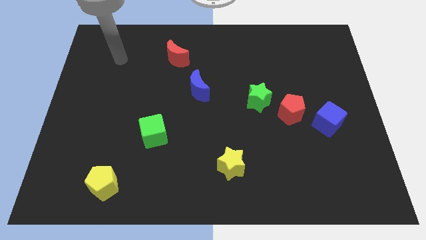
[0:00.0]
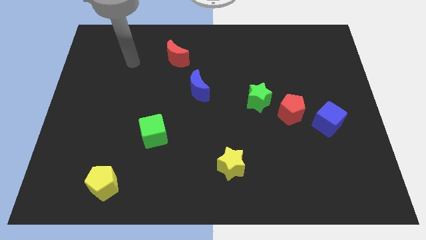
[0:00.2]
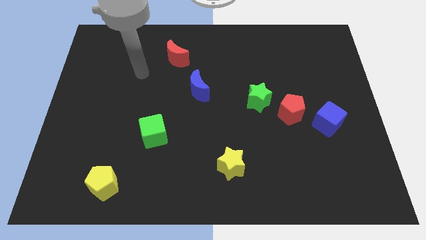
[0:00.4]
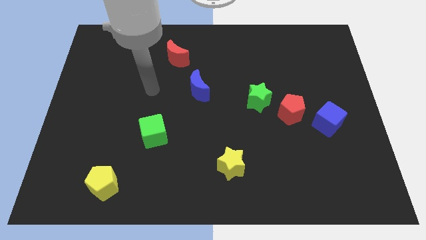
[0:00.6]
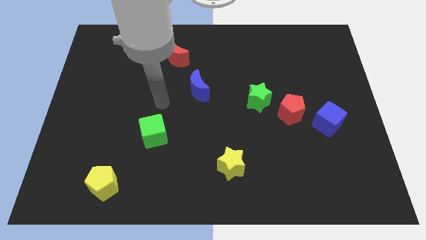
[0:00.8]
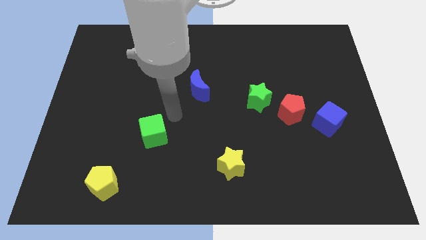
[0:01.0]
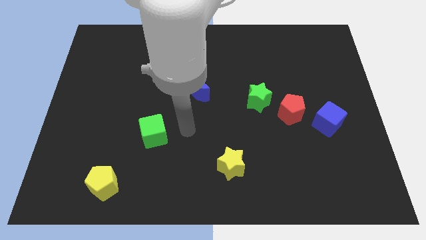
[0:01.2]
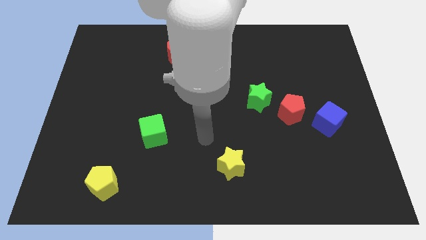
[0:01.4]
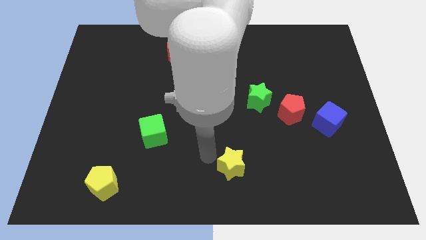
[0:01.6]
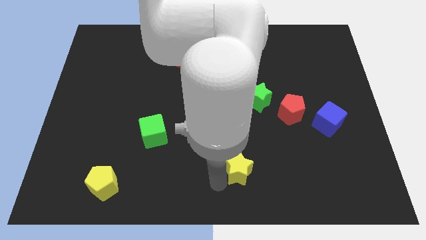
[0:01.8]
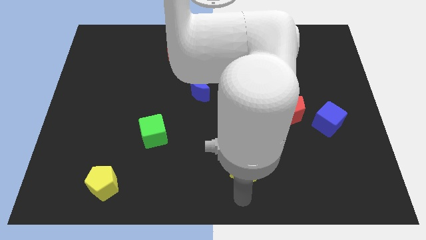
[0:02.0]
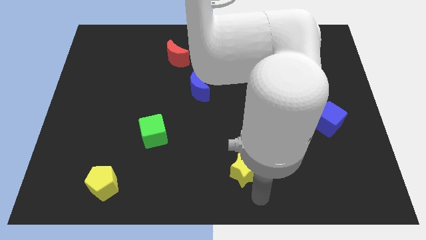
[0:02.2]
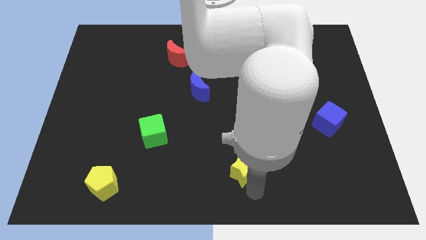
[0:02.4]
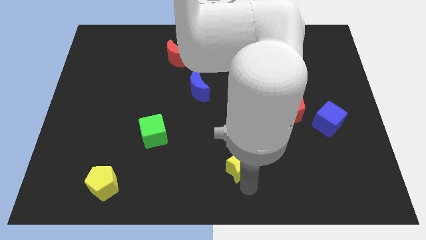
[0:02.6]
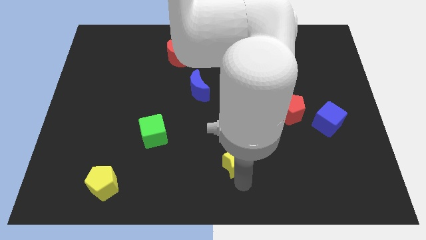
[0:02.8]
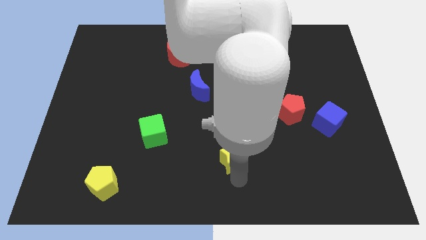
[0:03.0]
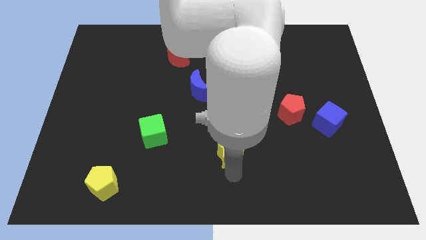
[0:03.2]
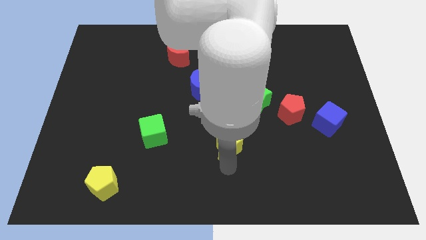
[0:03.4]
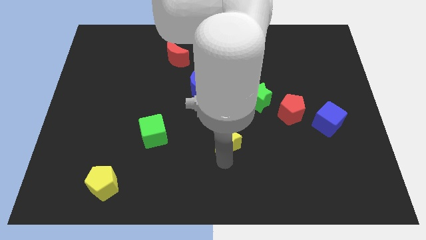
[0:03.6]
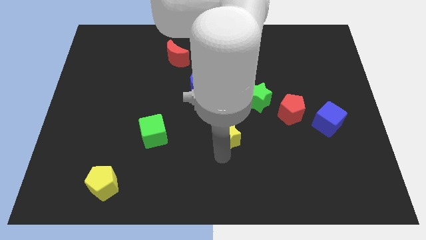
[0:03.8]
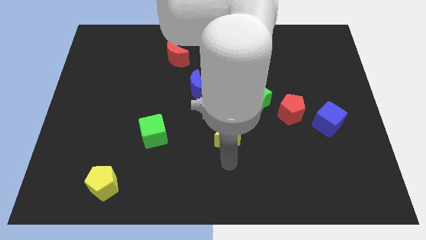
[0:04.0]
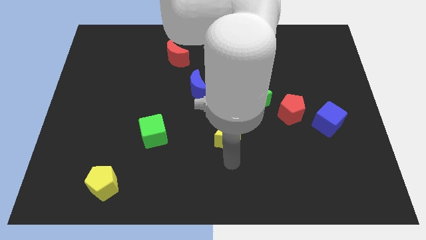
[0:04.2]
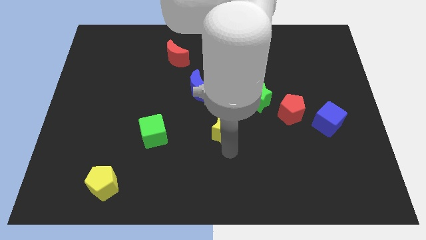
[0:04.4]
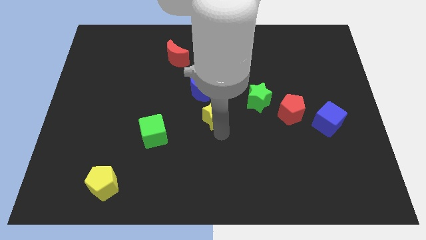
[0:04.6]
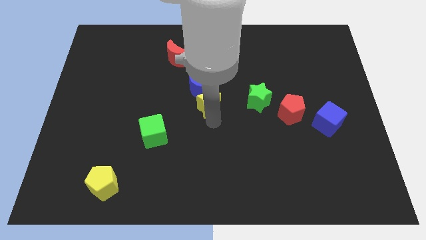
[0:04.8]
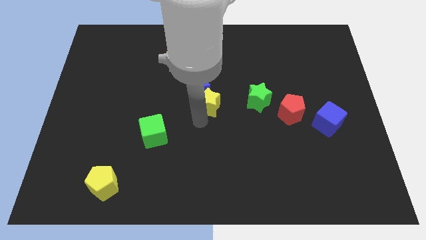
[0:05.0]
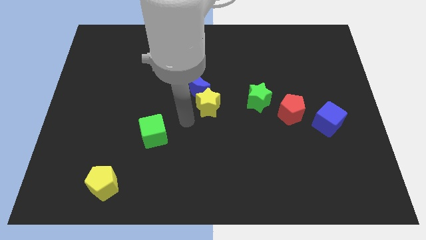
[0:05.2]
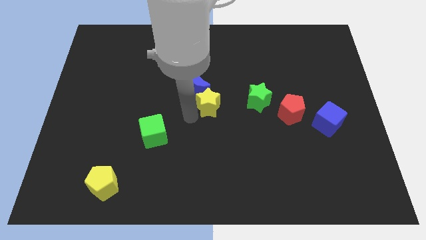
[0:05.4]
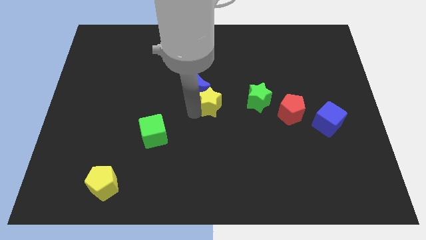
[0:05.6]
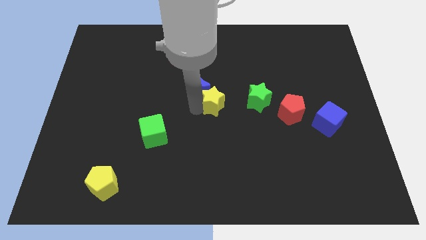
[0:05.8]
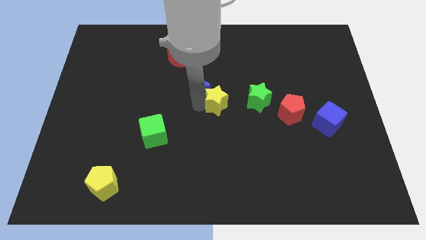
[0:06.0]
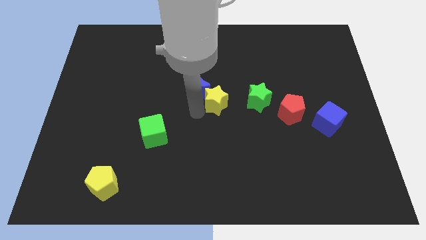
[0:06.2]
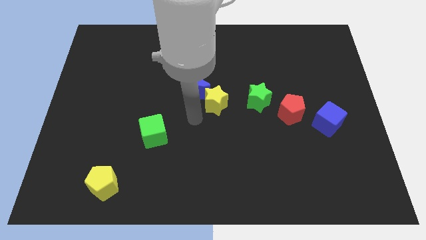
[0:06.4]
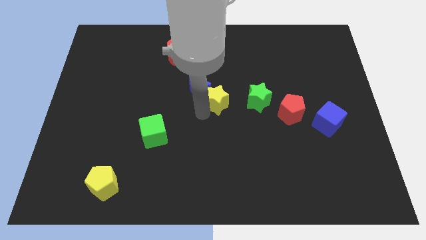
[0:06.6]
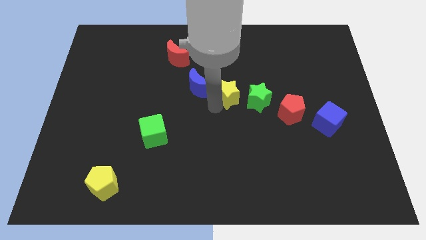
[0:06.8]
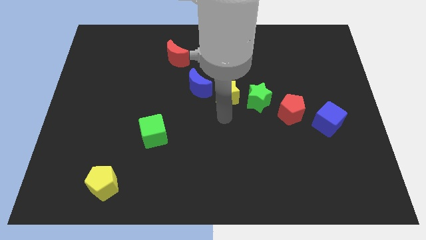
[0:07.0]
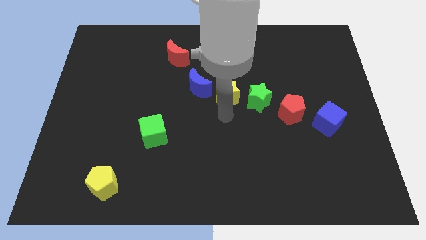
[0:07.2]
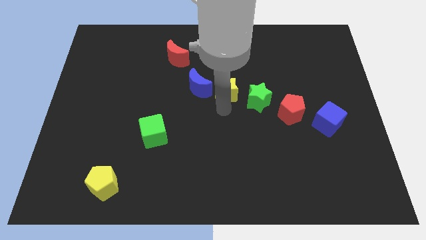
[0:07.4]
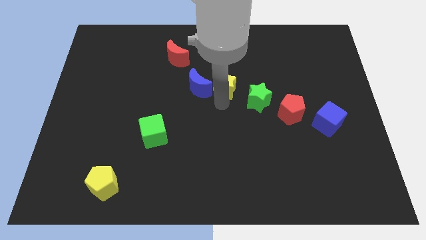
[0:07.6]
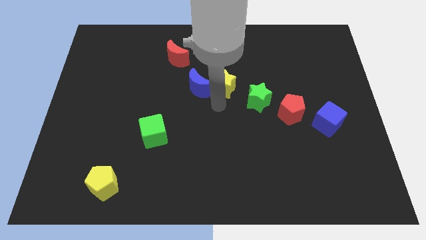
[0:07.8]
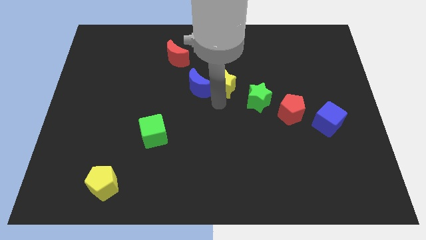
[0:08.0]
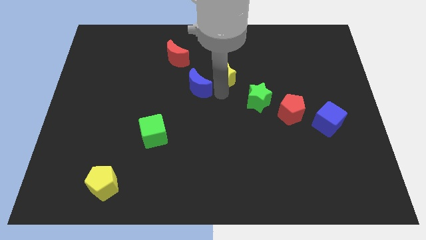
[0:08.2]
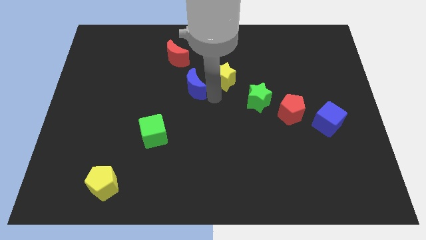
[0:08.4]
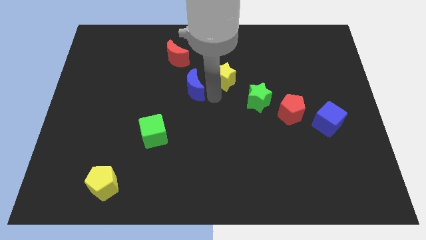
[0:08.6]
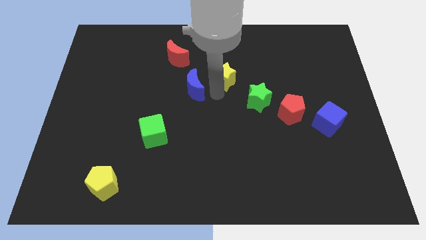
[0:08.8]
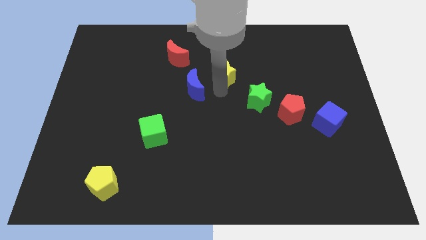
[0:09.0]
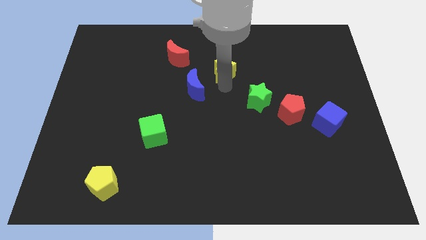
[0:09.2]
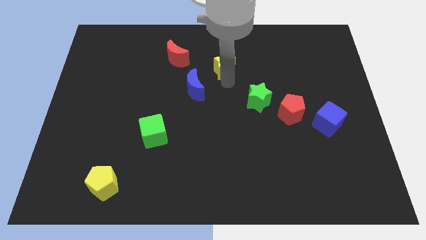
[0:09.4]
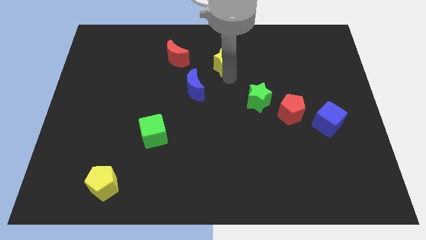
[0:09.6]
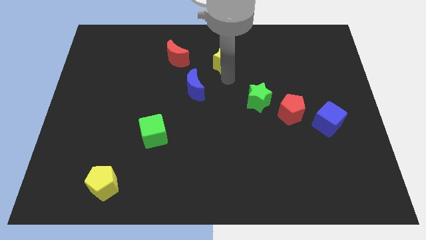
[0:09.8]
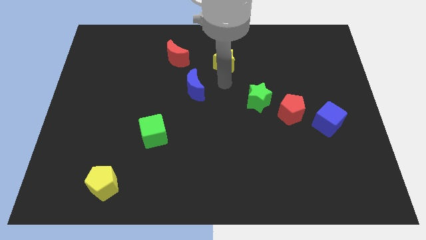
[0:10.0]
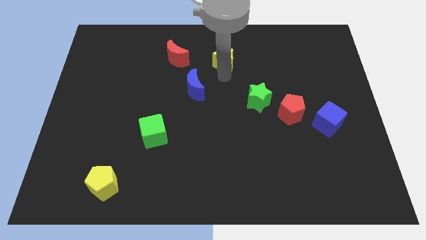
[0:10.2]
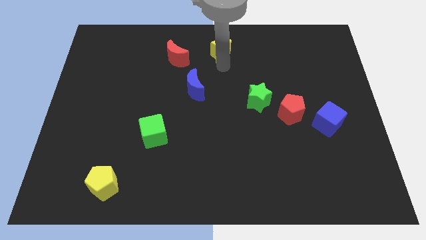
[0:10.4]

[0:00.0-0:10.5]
move the yellow star to the top side

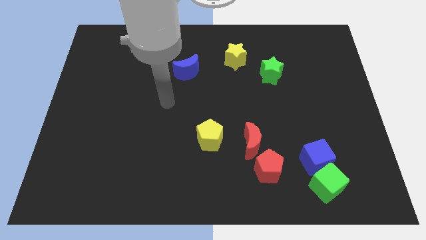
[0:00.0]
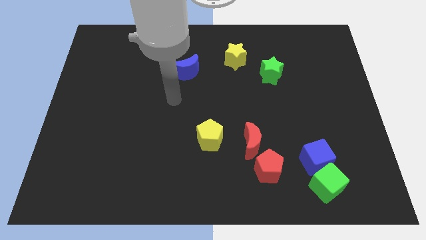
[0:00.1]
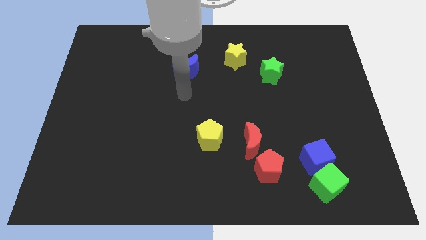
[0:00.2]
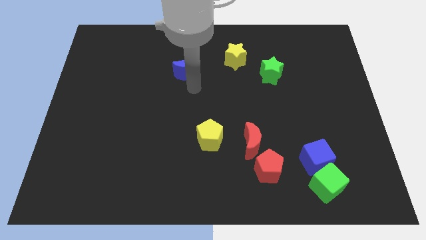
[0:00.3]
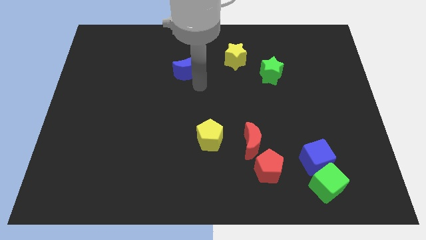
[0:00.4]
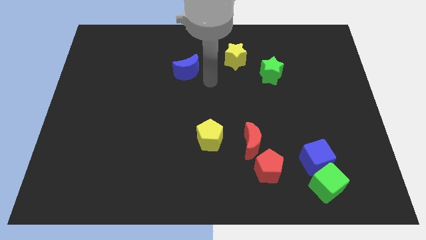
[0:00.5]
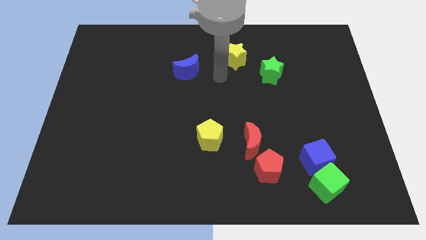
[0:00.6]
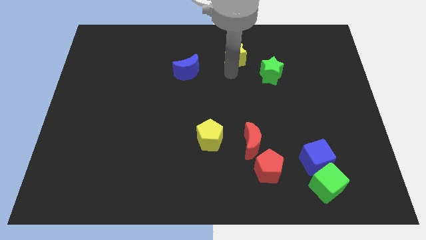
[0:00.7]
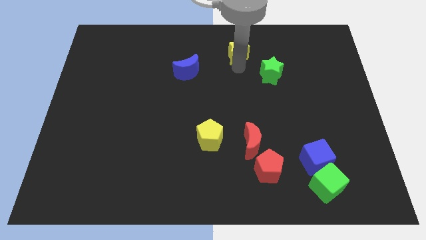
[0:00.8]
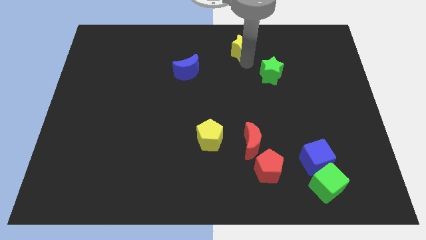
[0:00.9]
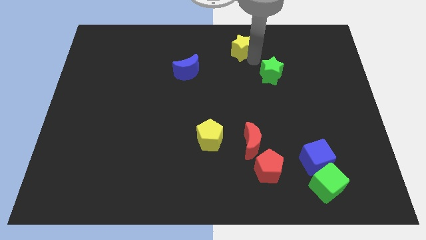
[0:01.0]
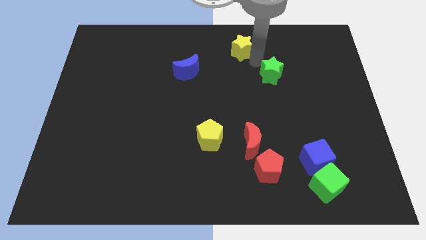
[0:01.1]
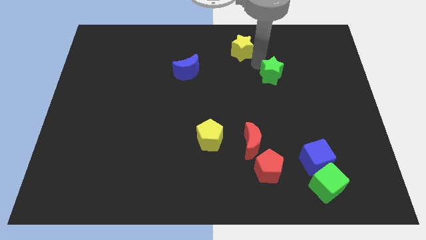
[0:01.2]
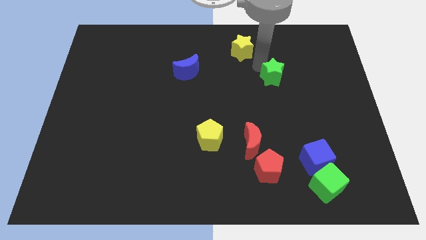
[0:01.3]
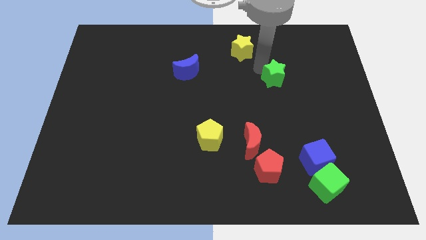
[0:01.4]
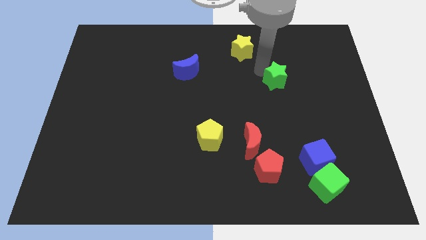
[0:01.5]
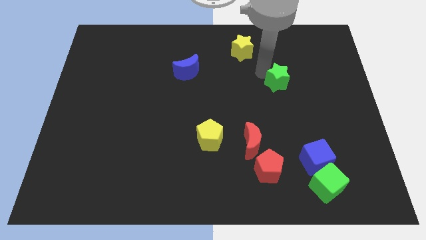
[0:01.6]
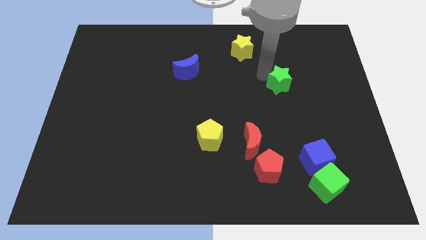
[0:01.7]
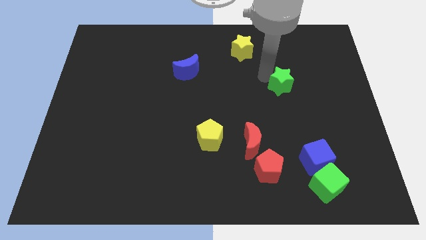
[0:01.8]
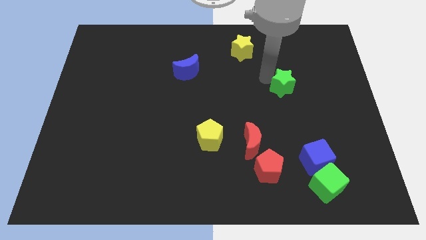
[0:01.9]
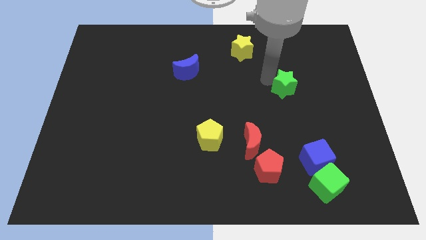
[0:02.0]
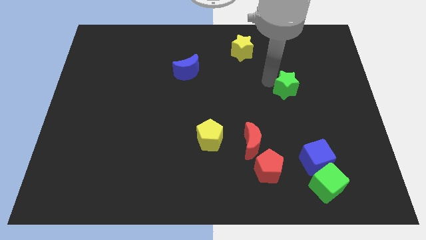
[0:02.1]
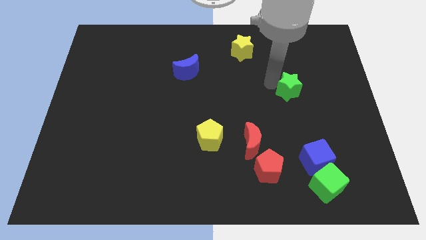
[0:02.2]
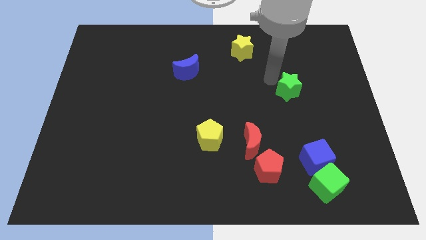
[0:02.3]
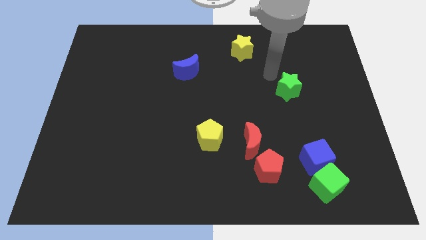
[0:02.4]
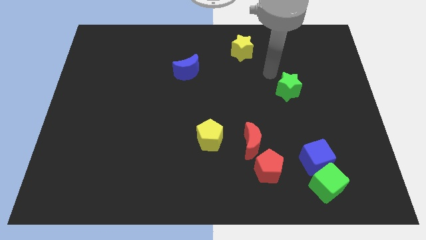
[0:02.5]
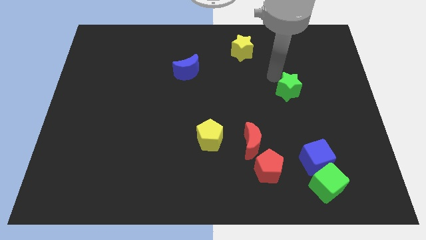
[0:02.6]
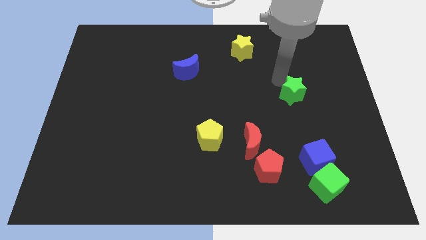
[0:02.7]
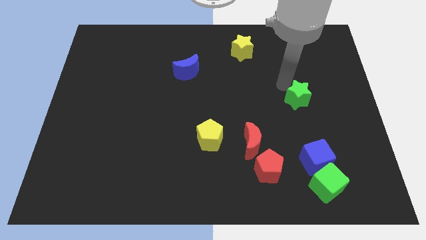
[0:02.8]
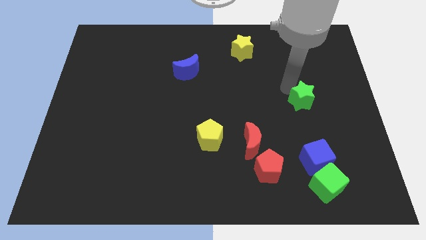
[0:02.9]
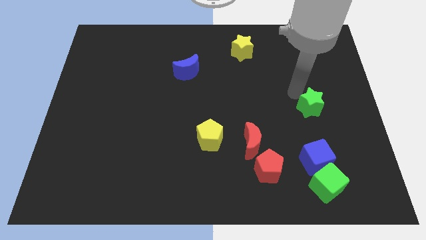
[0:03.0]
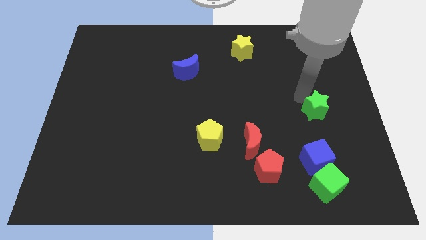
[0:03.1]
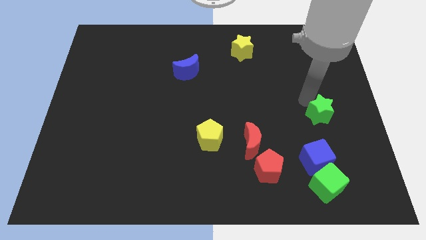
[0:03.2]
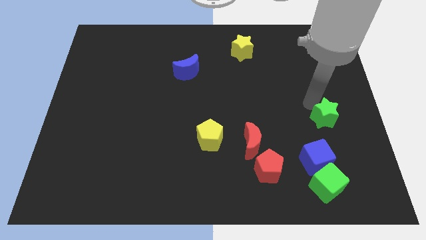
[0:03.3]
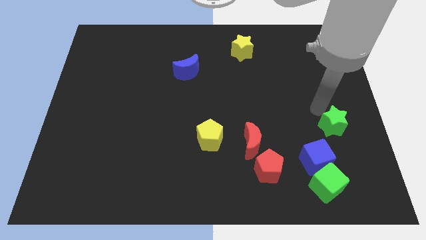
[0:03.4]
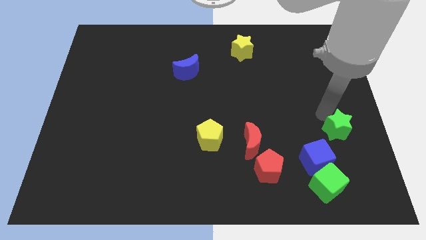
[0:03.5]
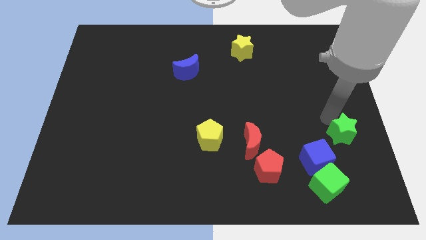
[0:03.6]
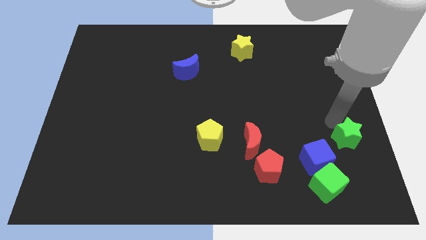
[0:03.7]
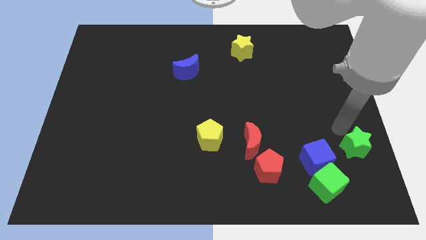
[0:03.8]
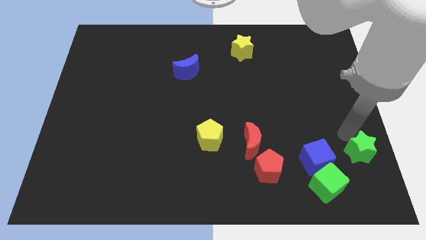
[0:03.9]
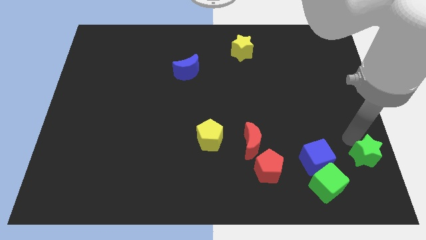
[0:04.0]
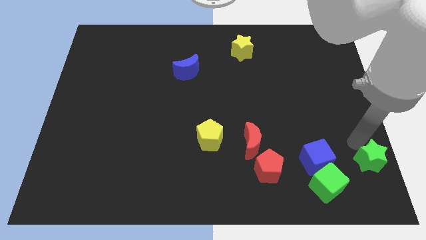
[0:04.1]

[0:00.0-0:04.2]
slide the green star to the lower right corner
